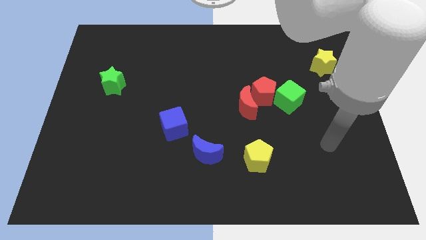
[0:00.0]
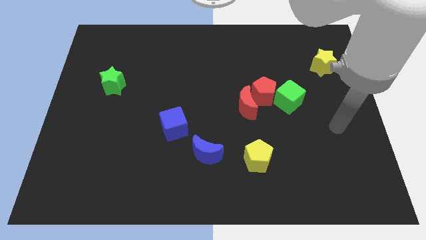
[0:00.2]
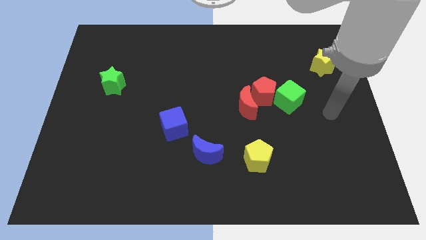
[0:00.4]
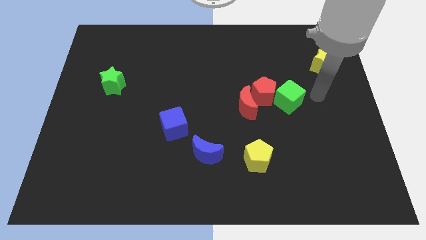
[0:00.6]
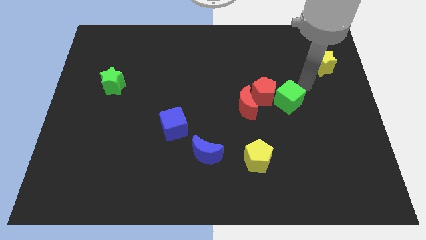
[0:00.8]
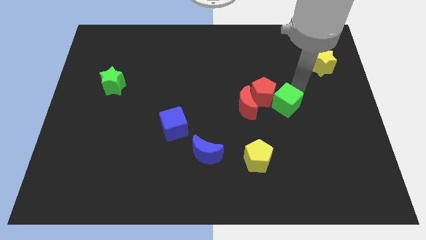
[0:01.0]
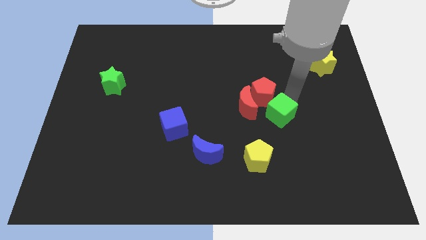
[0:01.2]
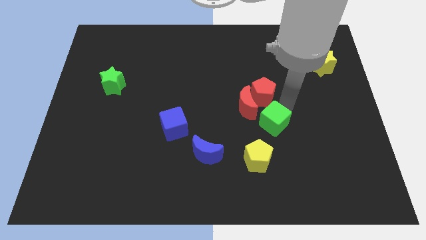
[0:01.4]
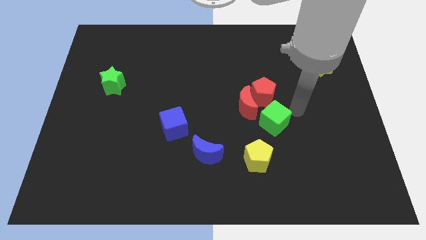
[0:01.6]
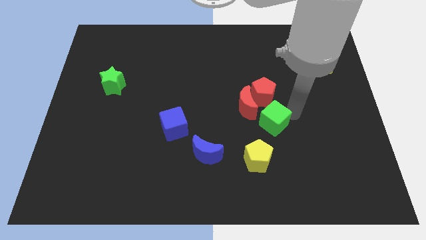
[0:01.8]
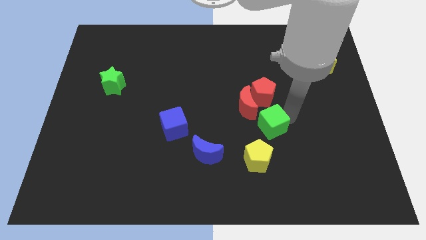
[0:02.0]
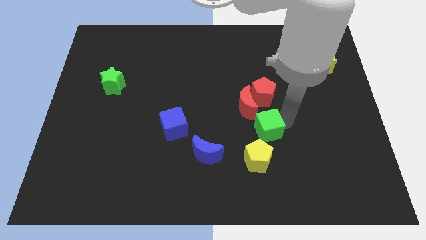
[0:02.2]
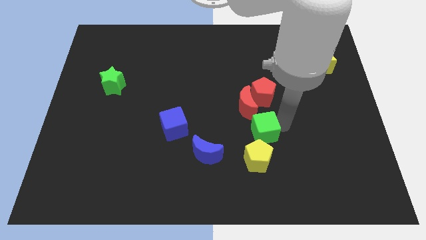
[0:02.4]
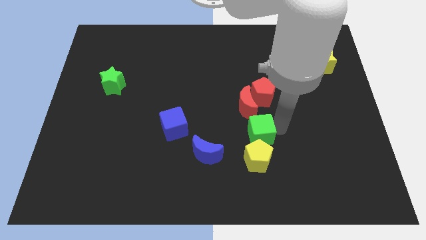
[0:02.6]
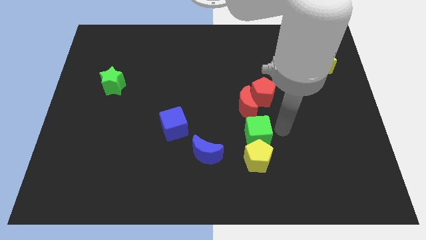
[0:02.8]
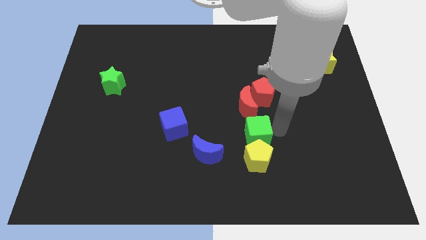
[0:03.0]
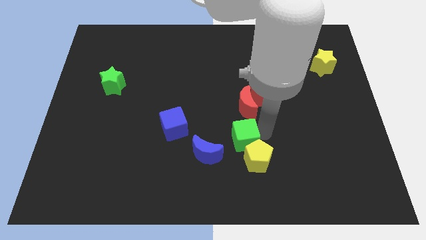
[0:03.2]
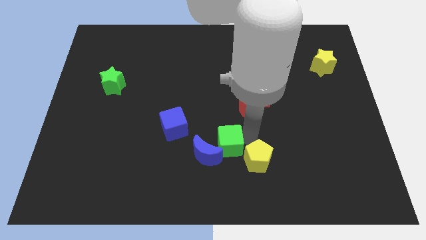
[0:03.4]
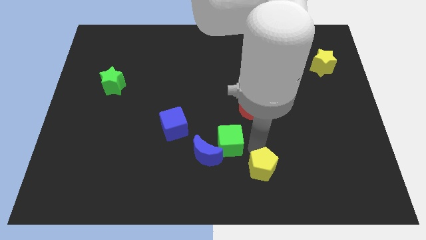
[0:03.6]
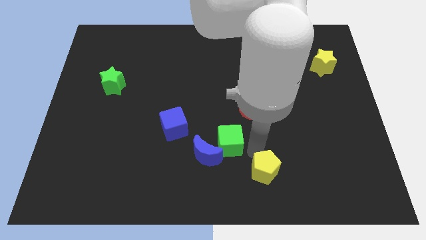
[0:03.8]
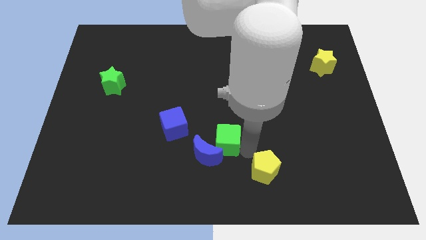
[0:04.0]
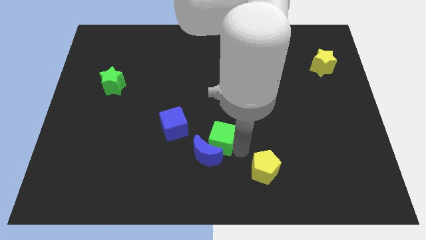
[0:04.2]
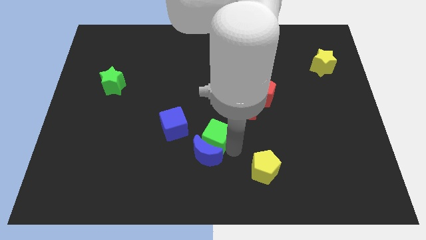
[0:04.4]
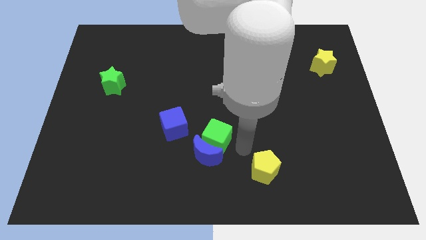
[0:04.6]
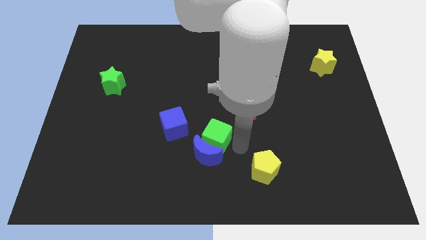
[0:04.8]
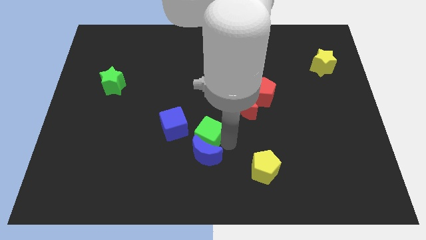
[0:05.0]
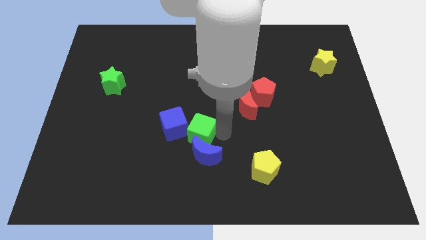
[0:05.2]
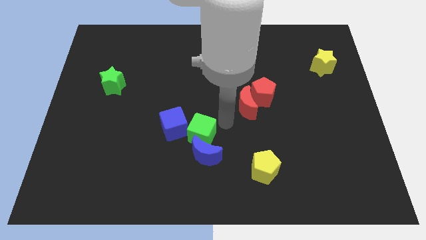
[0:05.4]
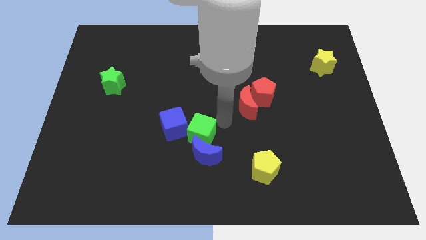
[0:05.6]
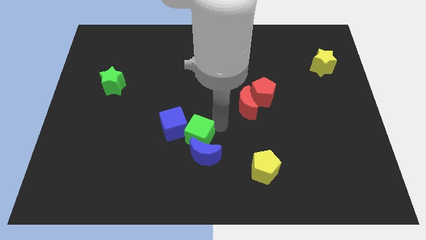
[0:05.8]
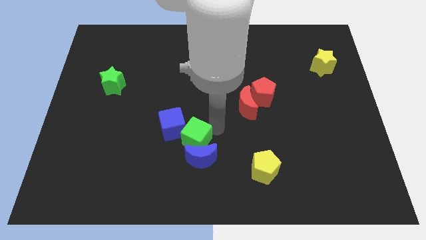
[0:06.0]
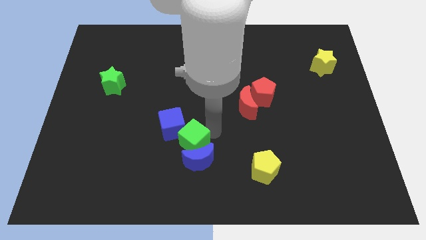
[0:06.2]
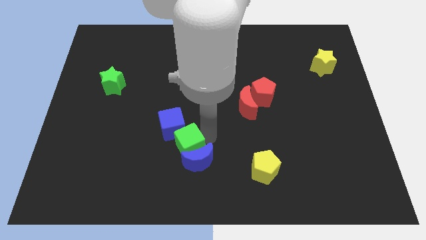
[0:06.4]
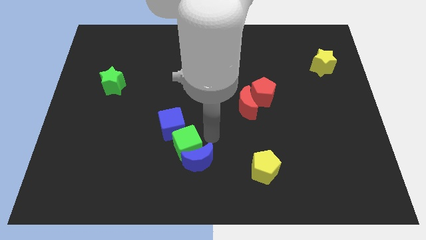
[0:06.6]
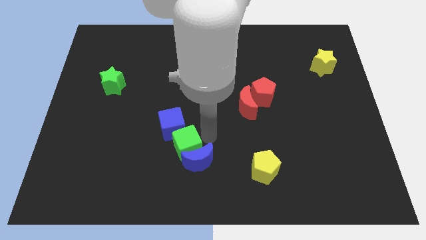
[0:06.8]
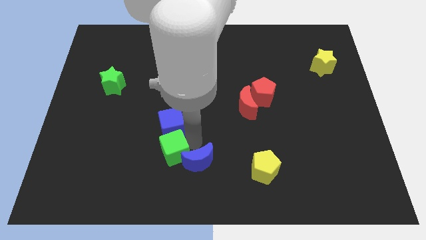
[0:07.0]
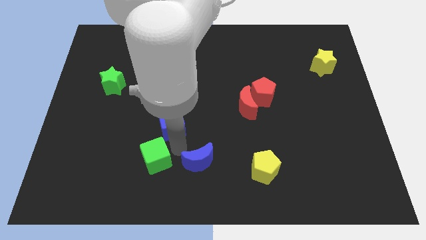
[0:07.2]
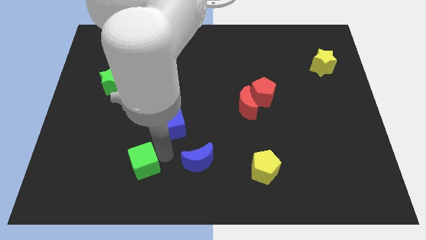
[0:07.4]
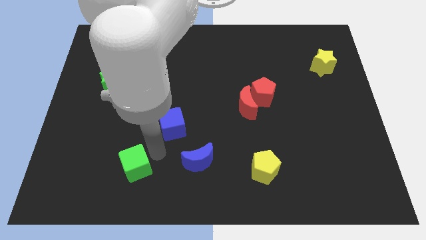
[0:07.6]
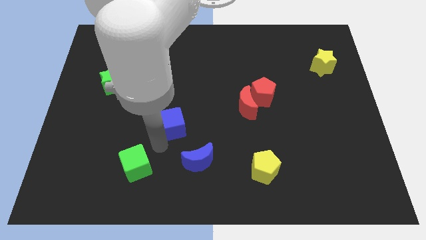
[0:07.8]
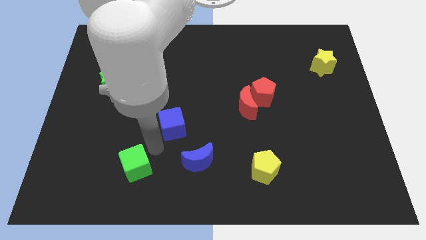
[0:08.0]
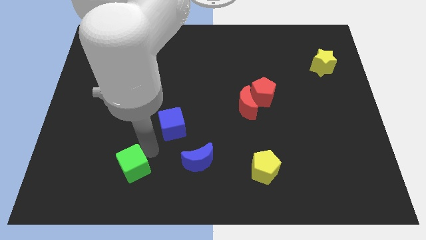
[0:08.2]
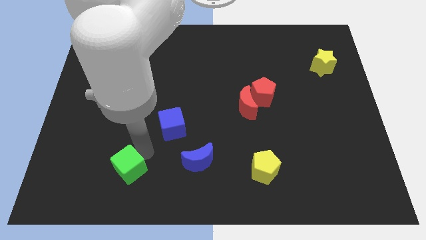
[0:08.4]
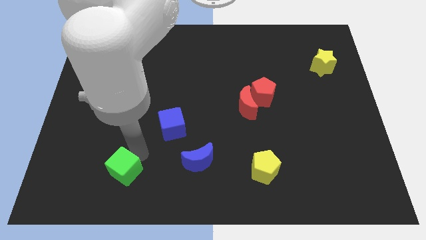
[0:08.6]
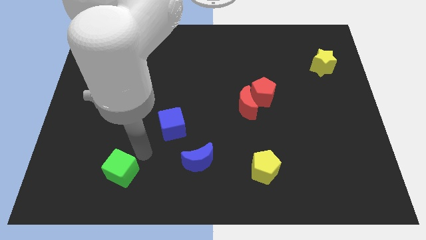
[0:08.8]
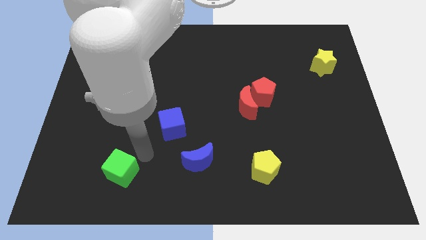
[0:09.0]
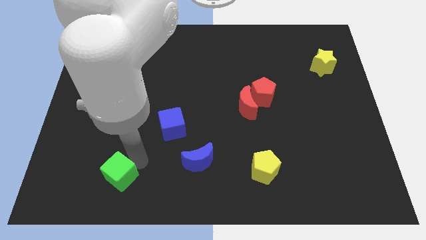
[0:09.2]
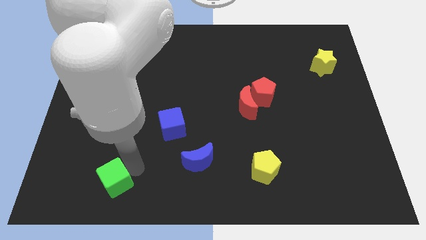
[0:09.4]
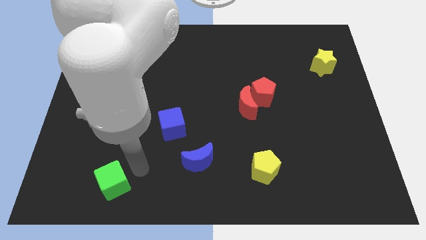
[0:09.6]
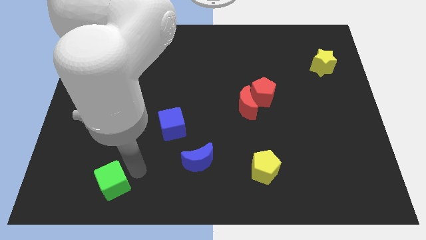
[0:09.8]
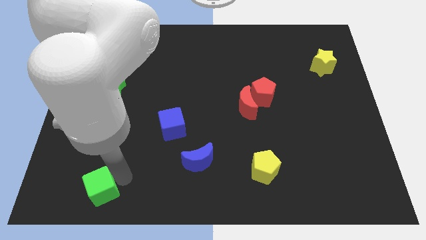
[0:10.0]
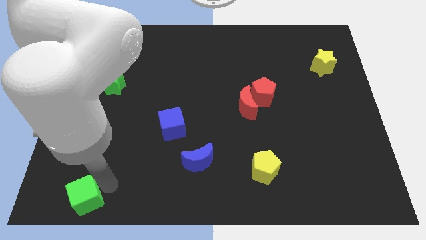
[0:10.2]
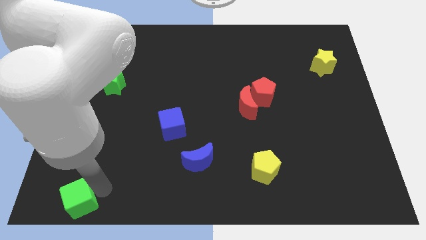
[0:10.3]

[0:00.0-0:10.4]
put the green cube to the bottom left
